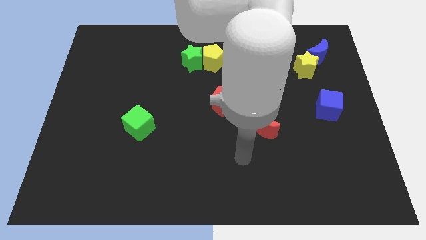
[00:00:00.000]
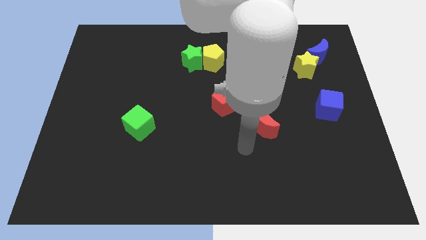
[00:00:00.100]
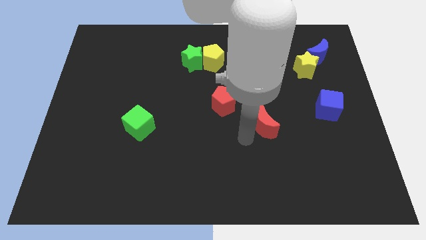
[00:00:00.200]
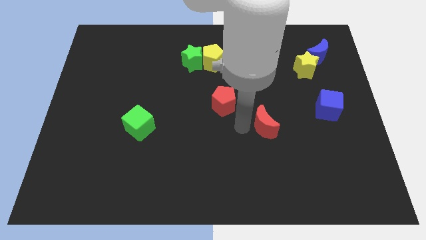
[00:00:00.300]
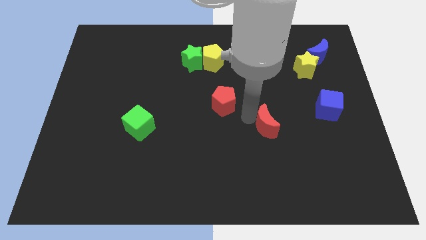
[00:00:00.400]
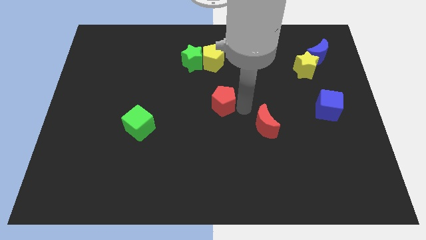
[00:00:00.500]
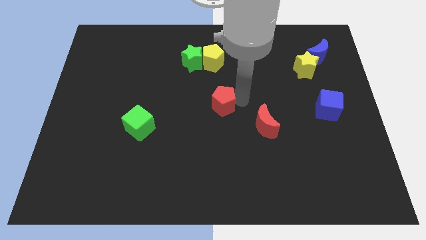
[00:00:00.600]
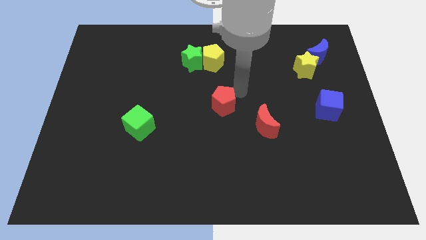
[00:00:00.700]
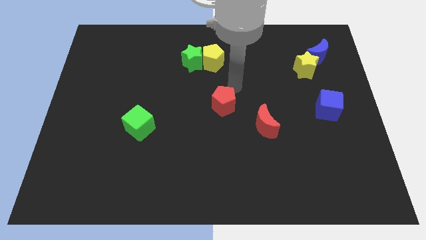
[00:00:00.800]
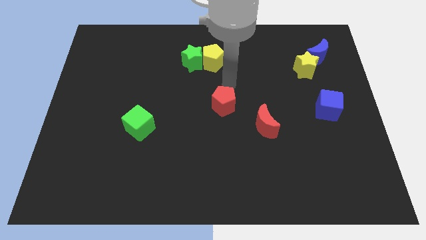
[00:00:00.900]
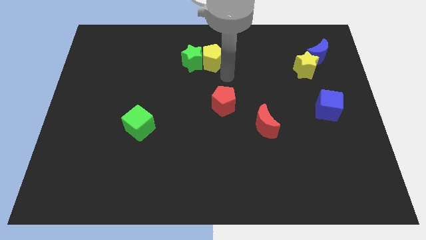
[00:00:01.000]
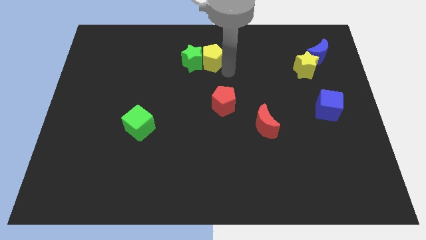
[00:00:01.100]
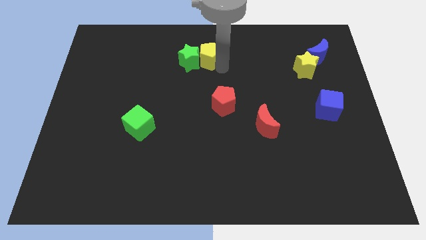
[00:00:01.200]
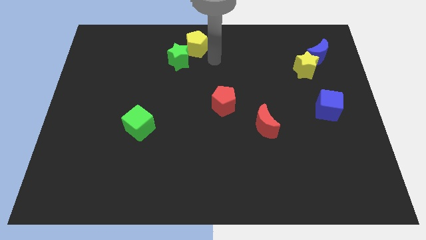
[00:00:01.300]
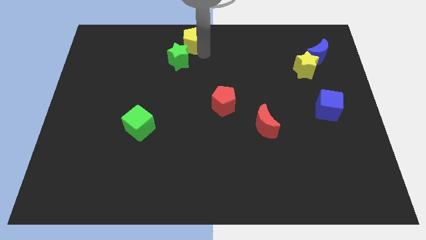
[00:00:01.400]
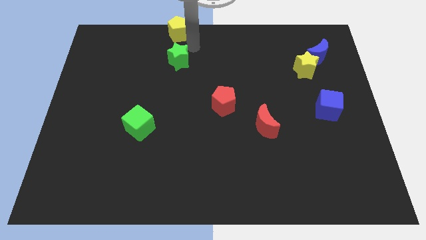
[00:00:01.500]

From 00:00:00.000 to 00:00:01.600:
pull the green star apart from the yellow pentagon

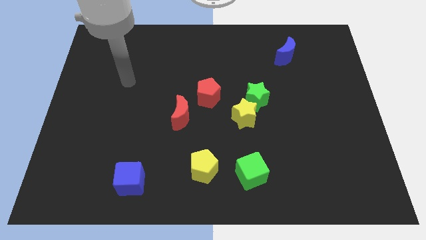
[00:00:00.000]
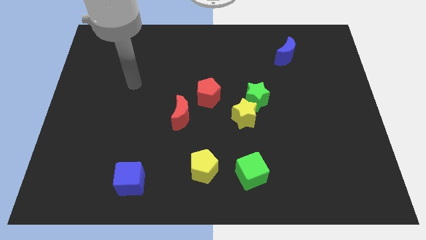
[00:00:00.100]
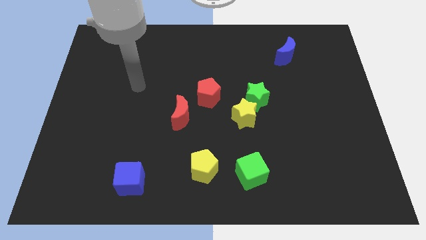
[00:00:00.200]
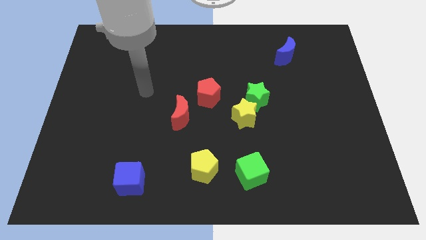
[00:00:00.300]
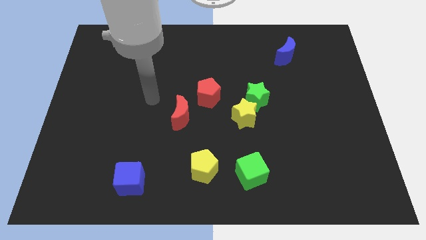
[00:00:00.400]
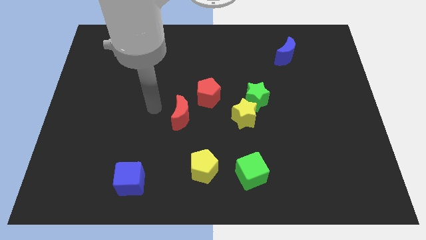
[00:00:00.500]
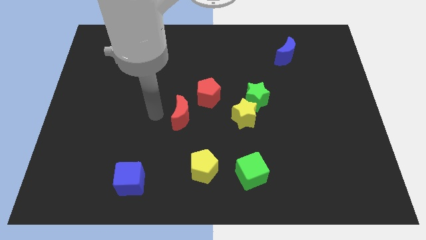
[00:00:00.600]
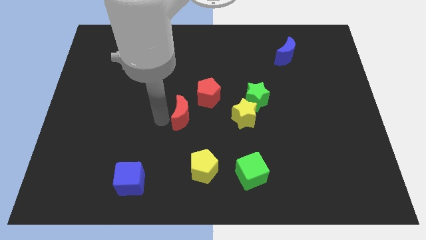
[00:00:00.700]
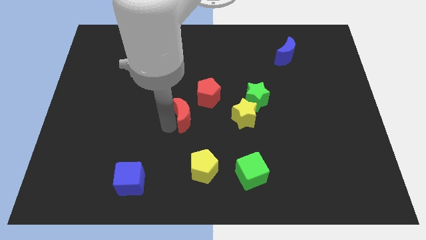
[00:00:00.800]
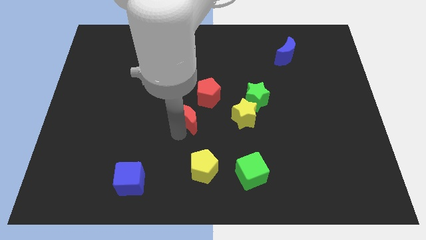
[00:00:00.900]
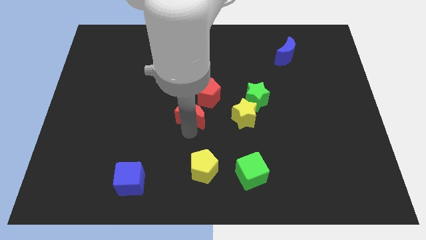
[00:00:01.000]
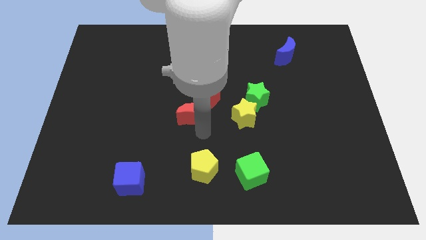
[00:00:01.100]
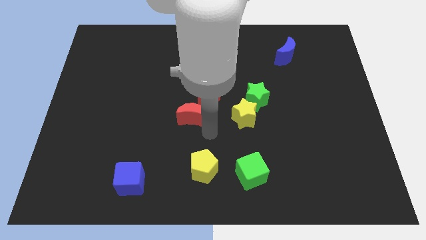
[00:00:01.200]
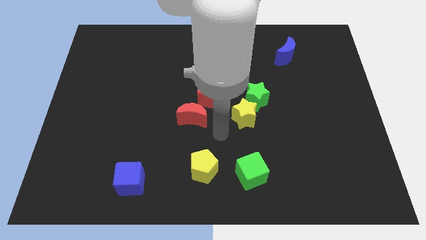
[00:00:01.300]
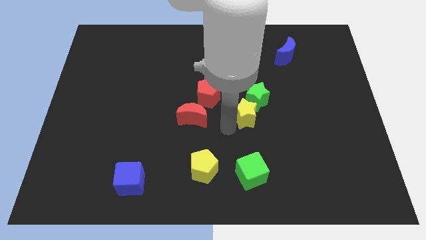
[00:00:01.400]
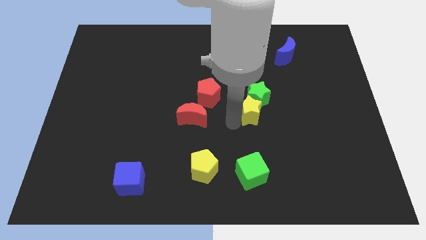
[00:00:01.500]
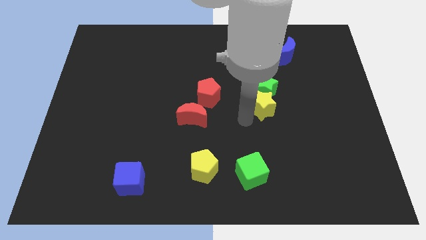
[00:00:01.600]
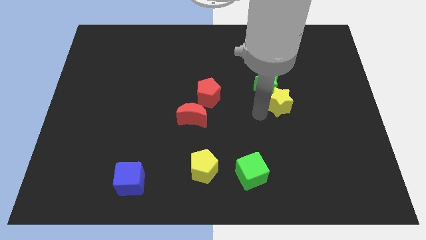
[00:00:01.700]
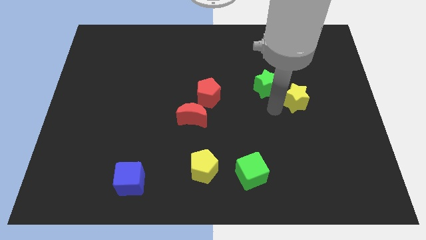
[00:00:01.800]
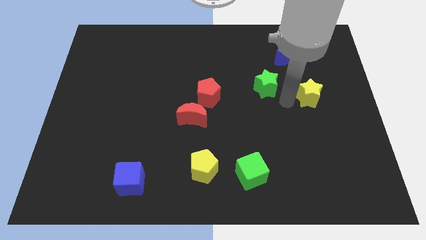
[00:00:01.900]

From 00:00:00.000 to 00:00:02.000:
separate the green star from the yellow star

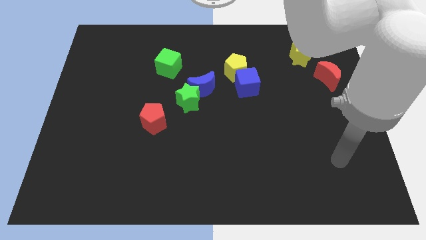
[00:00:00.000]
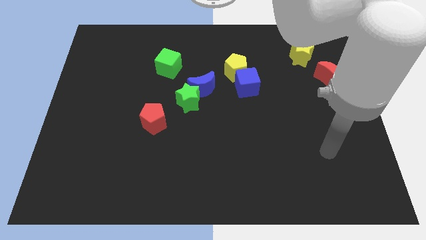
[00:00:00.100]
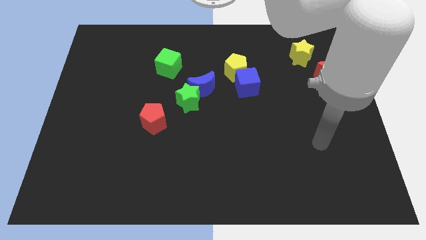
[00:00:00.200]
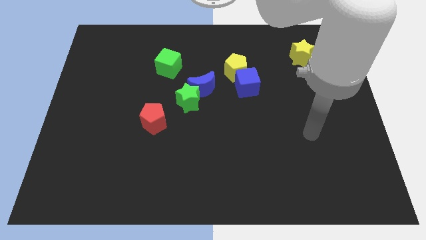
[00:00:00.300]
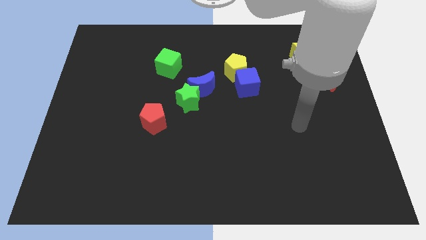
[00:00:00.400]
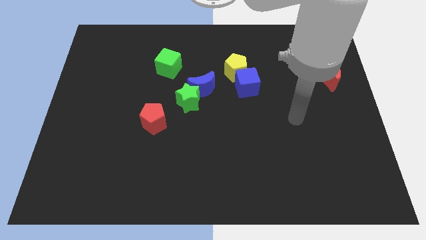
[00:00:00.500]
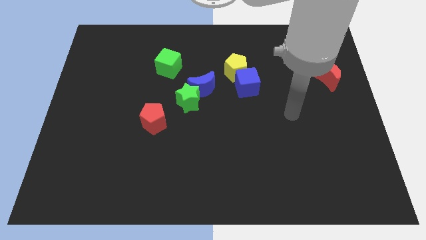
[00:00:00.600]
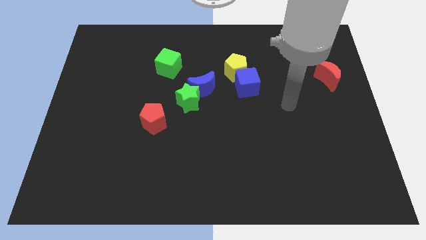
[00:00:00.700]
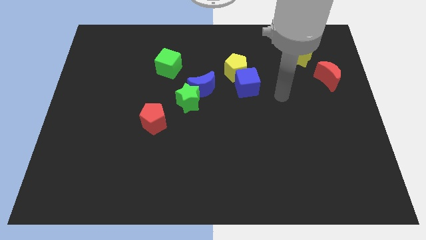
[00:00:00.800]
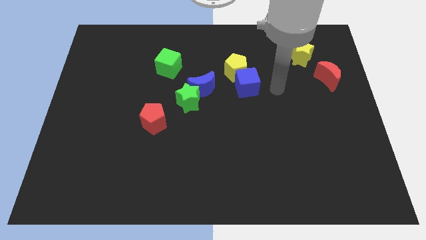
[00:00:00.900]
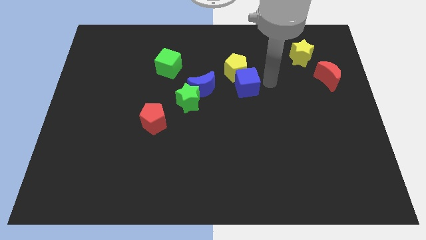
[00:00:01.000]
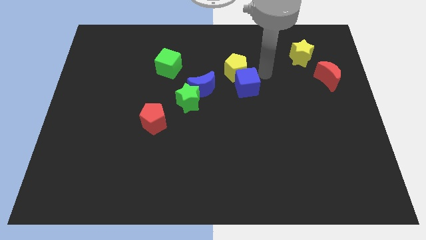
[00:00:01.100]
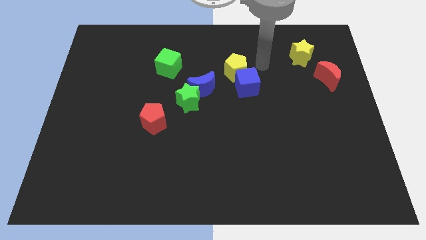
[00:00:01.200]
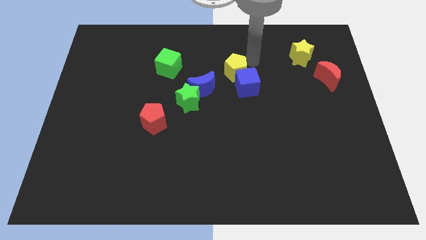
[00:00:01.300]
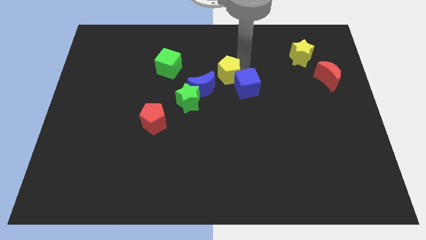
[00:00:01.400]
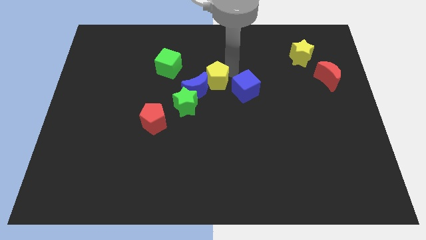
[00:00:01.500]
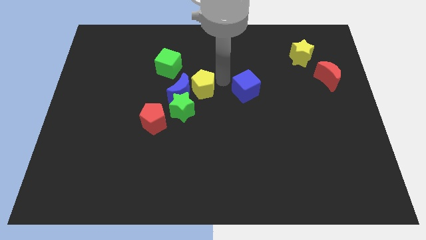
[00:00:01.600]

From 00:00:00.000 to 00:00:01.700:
move the blue cube away from the yellow pentagon

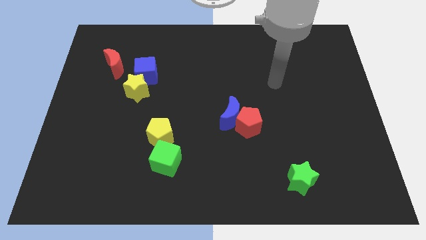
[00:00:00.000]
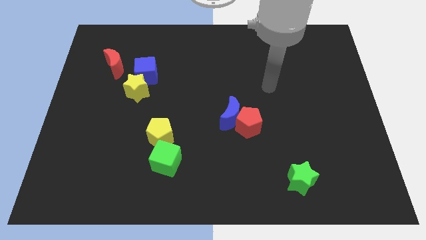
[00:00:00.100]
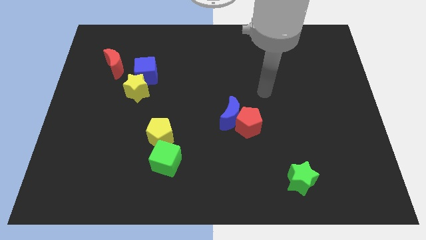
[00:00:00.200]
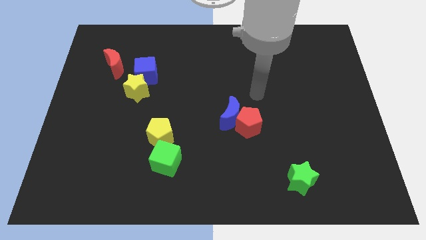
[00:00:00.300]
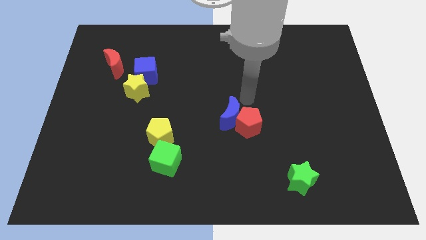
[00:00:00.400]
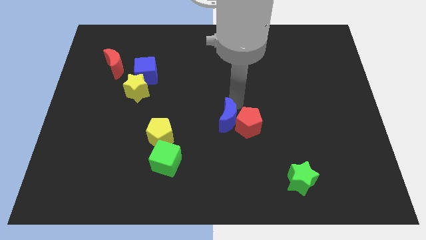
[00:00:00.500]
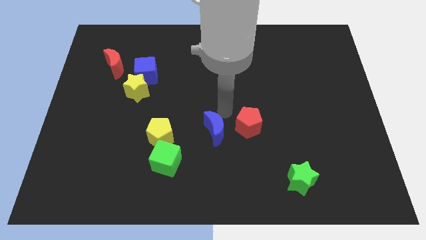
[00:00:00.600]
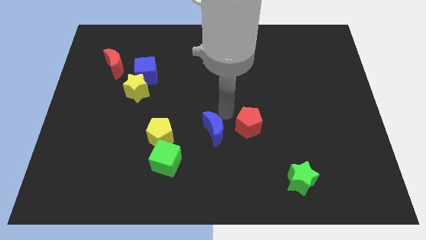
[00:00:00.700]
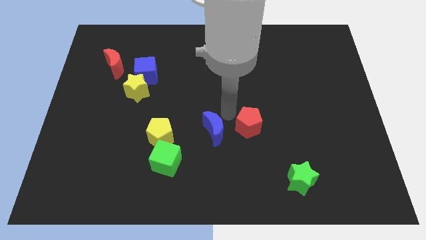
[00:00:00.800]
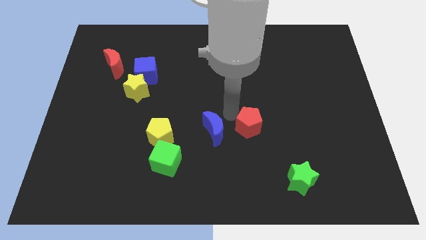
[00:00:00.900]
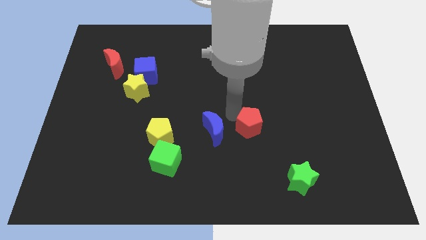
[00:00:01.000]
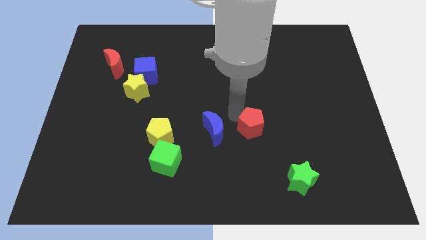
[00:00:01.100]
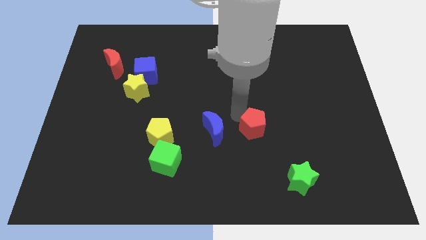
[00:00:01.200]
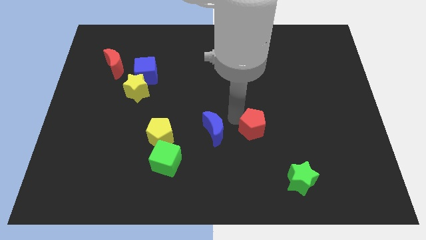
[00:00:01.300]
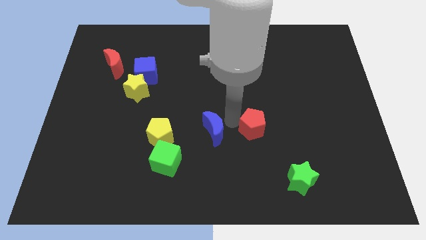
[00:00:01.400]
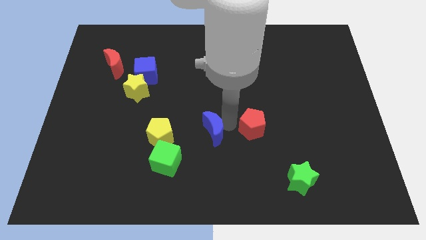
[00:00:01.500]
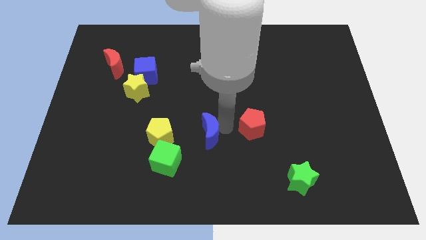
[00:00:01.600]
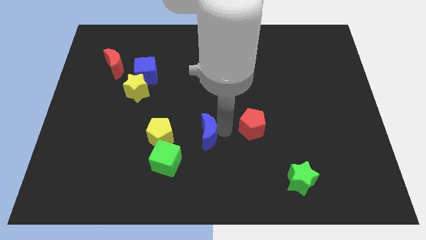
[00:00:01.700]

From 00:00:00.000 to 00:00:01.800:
pull the red pentagon apart from the blue moon

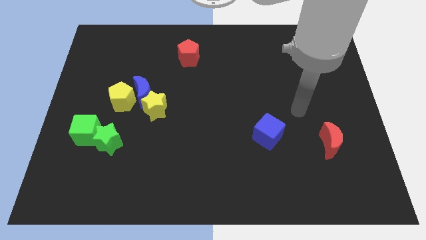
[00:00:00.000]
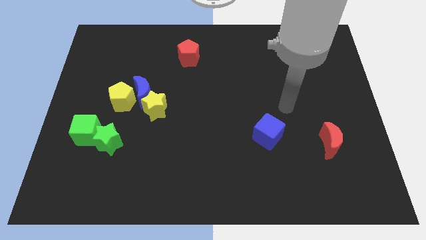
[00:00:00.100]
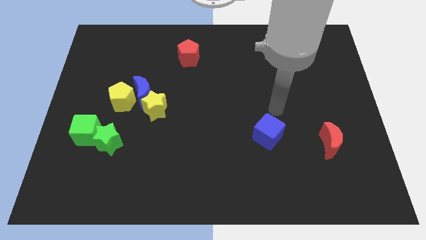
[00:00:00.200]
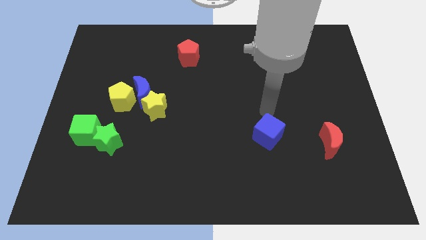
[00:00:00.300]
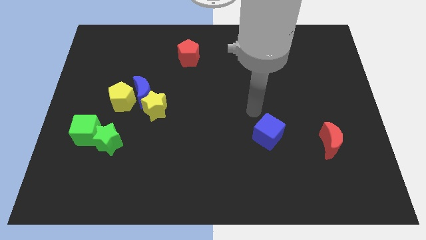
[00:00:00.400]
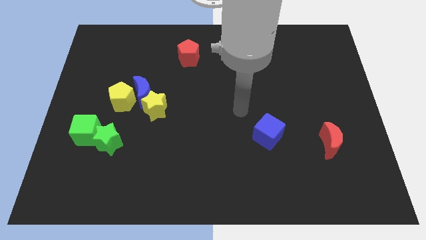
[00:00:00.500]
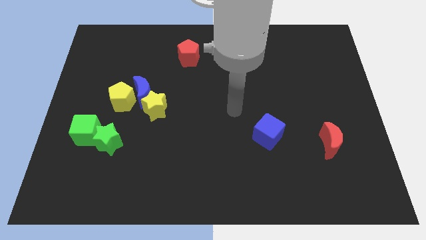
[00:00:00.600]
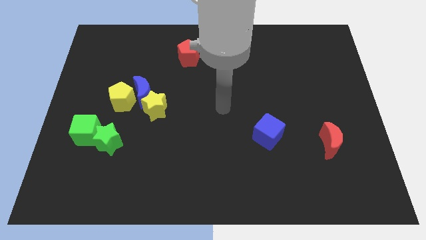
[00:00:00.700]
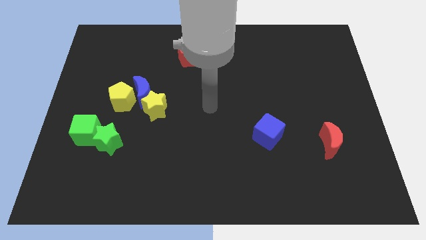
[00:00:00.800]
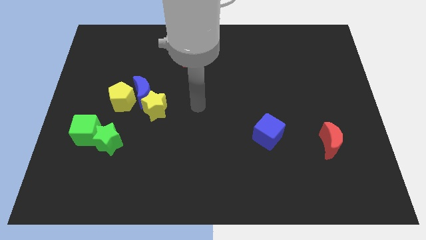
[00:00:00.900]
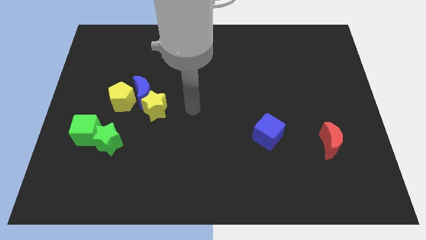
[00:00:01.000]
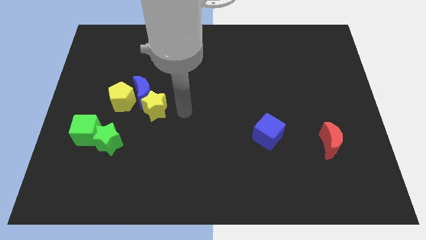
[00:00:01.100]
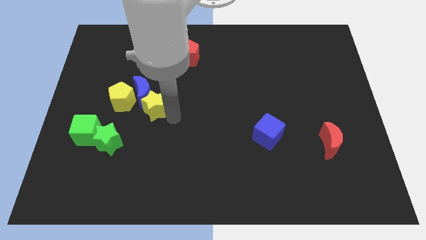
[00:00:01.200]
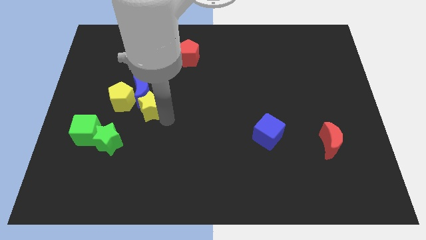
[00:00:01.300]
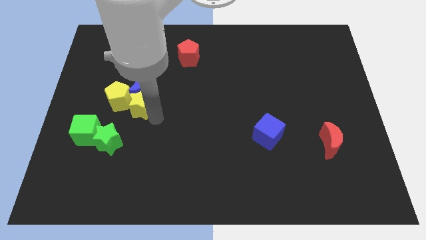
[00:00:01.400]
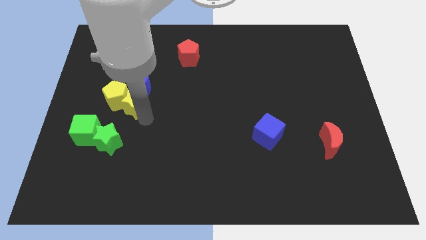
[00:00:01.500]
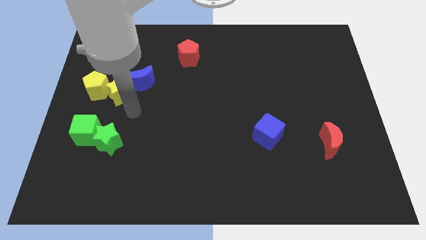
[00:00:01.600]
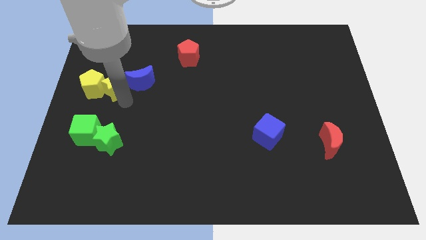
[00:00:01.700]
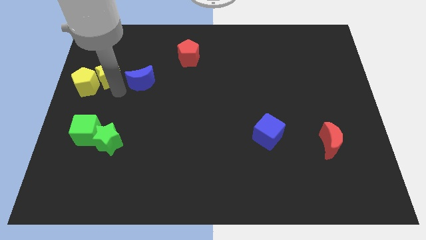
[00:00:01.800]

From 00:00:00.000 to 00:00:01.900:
move the blue moon away from the yellow pentagon and yellow star

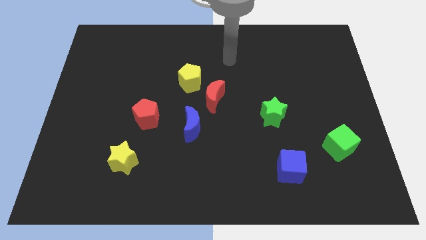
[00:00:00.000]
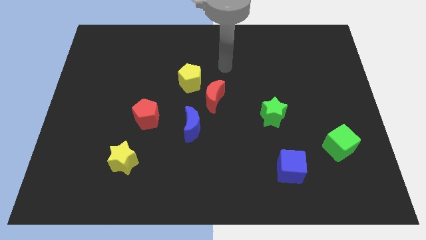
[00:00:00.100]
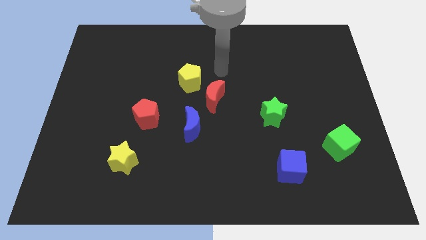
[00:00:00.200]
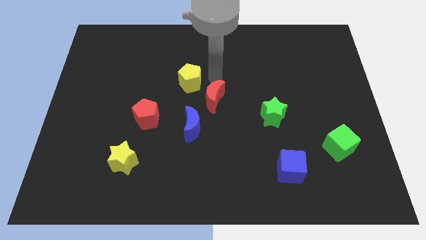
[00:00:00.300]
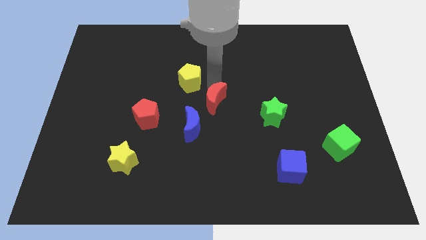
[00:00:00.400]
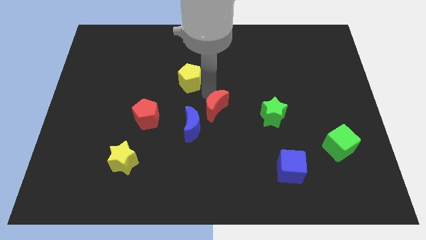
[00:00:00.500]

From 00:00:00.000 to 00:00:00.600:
pull the yellow pentagon apart from the red moon
